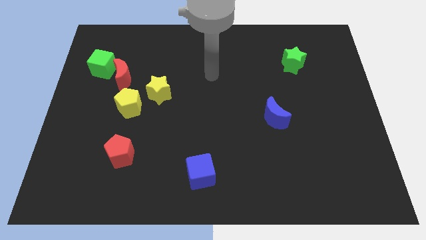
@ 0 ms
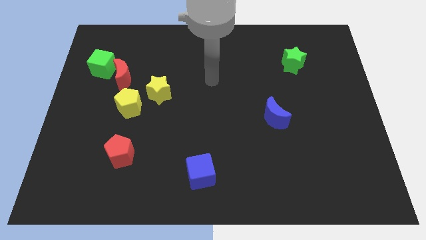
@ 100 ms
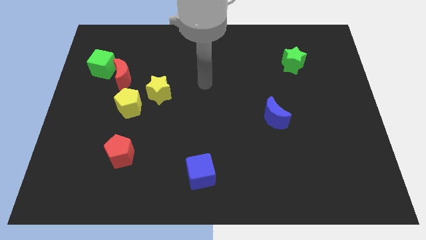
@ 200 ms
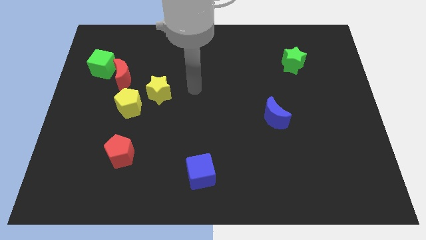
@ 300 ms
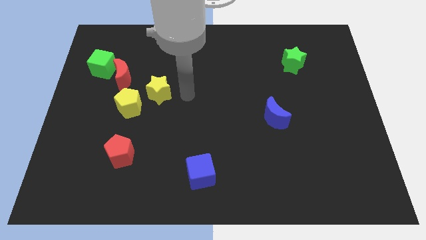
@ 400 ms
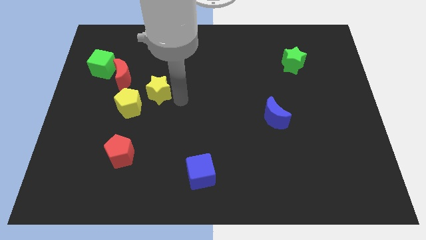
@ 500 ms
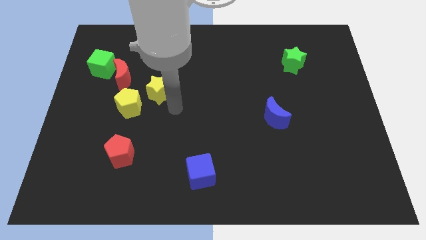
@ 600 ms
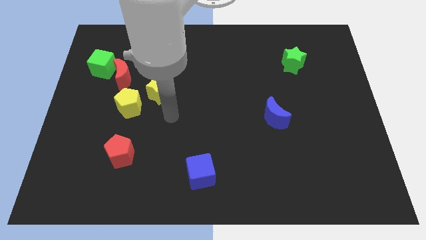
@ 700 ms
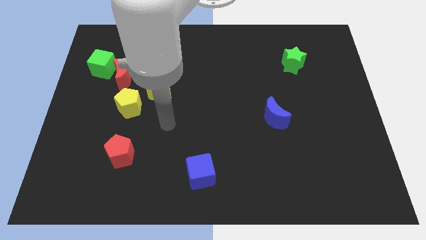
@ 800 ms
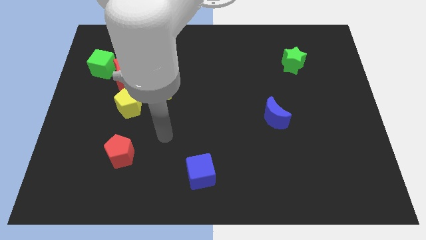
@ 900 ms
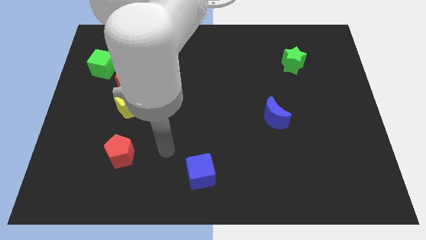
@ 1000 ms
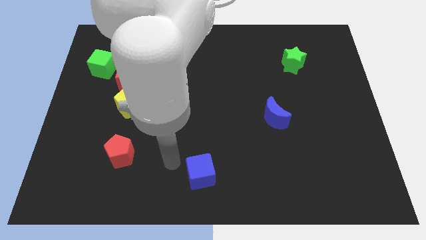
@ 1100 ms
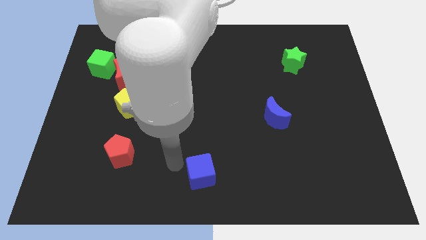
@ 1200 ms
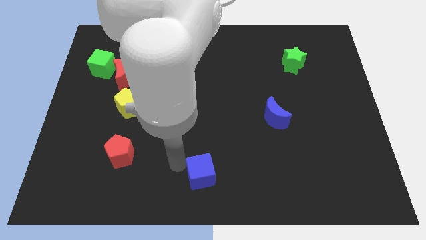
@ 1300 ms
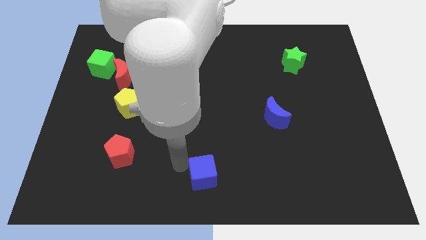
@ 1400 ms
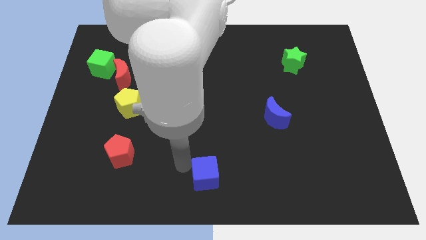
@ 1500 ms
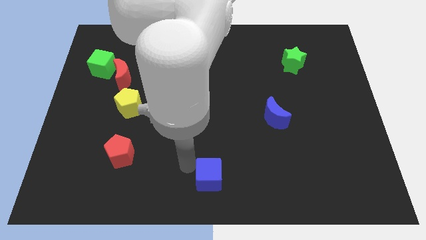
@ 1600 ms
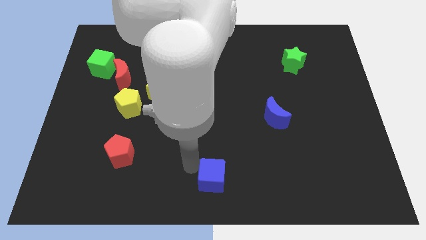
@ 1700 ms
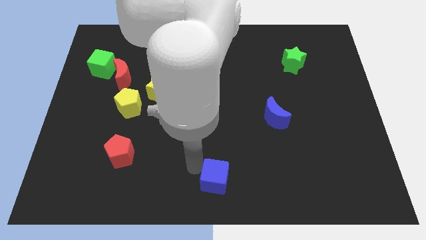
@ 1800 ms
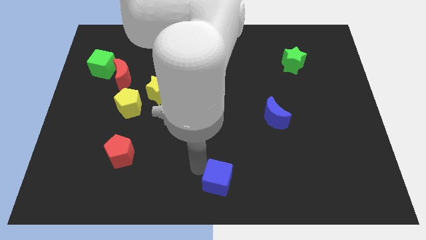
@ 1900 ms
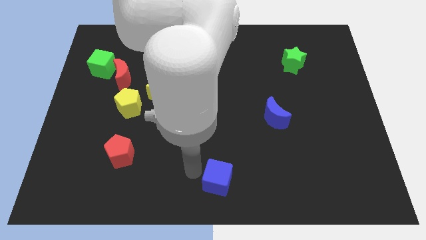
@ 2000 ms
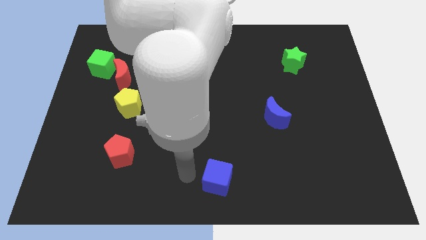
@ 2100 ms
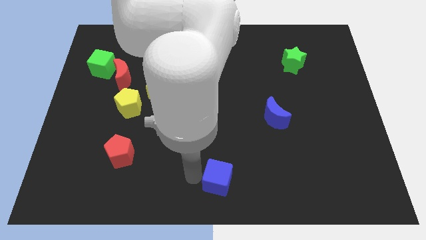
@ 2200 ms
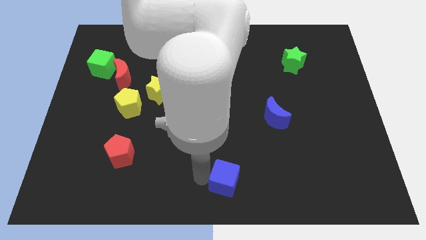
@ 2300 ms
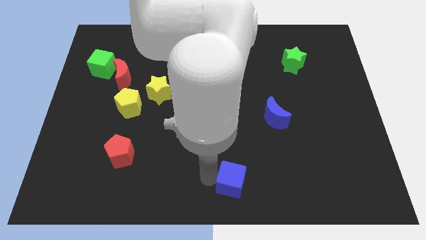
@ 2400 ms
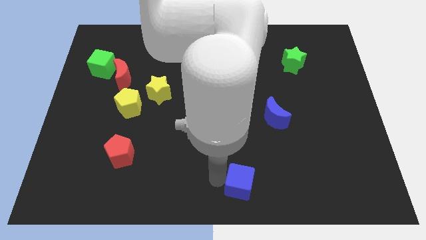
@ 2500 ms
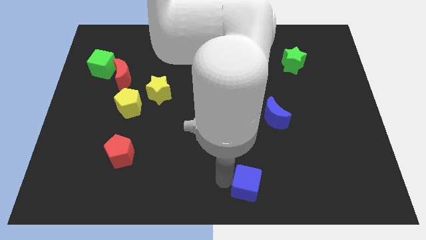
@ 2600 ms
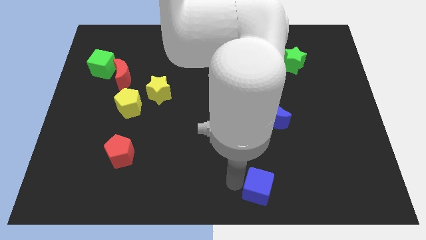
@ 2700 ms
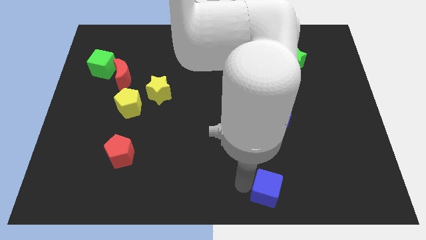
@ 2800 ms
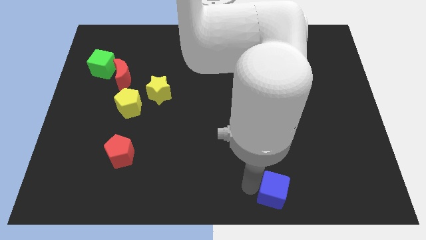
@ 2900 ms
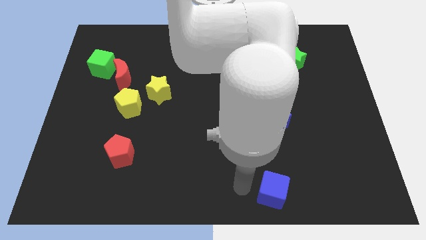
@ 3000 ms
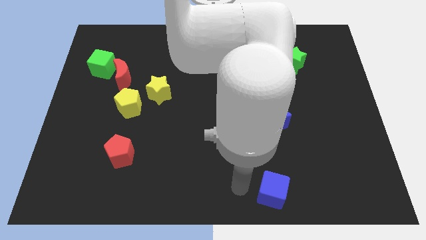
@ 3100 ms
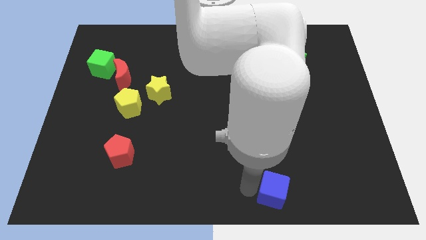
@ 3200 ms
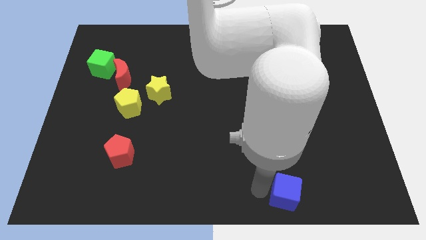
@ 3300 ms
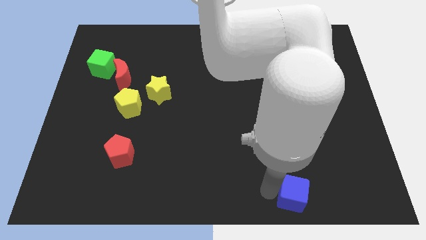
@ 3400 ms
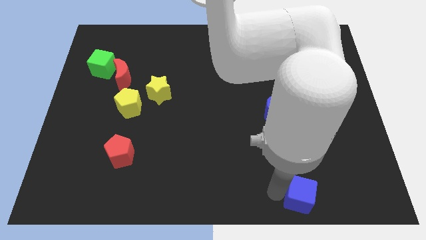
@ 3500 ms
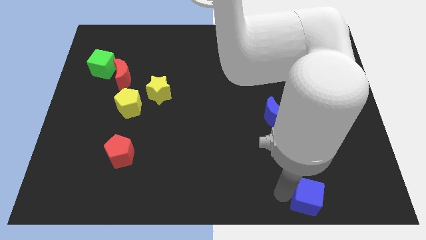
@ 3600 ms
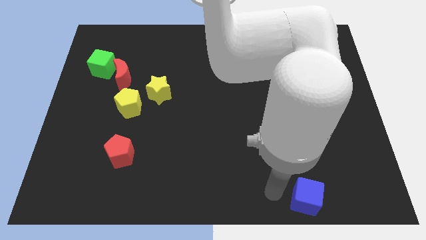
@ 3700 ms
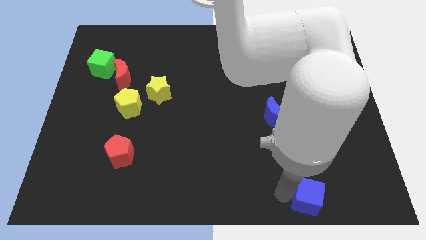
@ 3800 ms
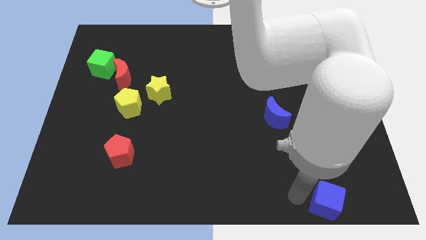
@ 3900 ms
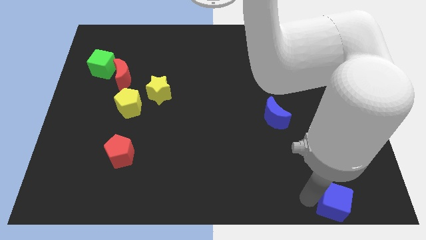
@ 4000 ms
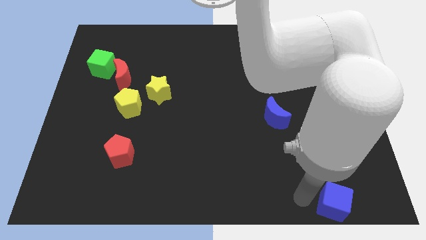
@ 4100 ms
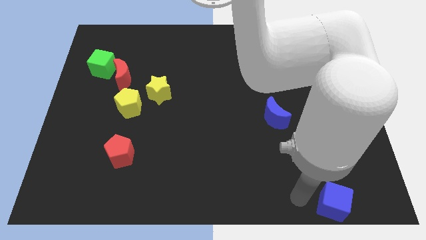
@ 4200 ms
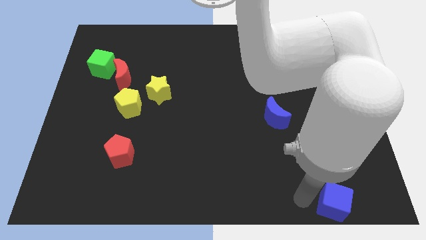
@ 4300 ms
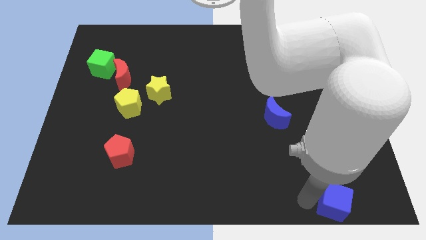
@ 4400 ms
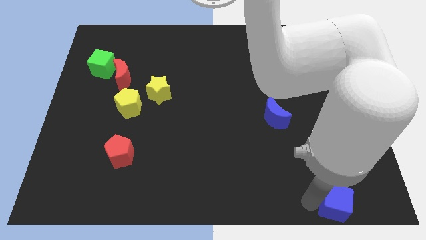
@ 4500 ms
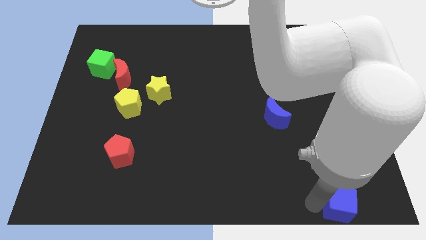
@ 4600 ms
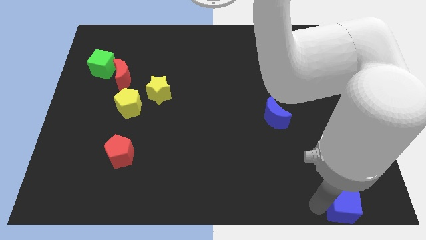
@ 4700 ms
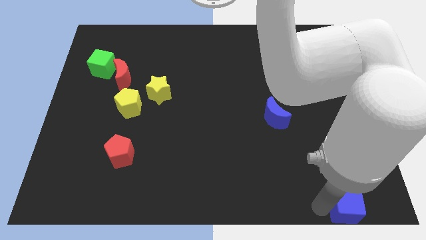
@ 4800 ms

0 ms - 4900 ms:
put the blue cube to the bottom right corner

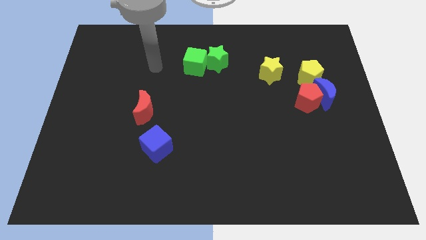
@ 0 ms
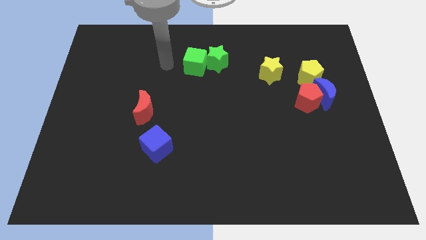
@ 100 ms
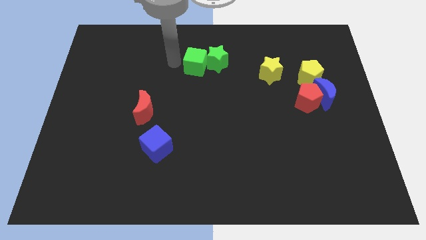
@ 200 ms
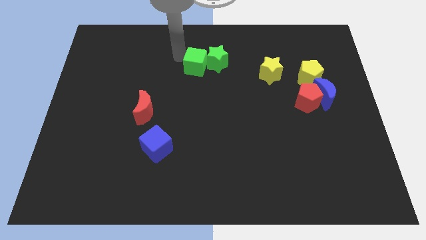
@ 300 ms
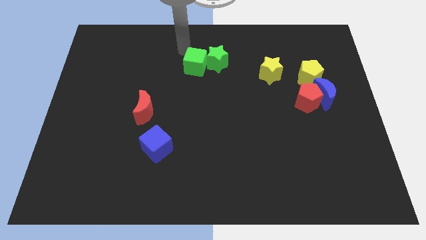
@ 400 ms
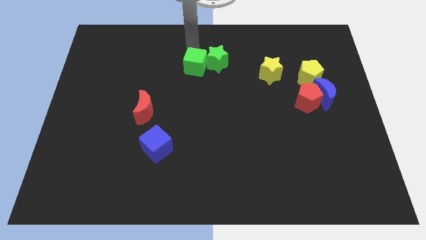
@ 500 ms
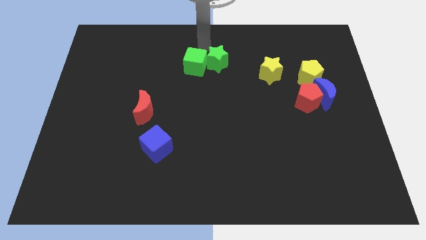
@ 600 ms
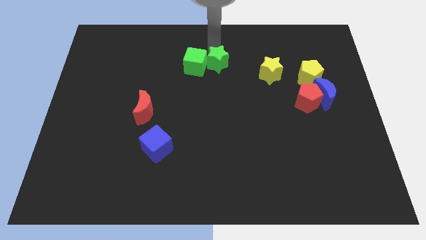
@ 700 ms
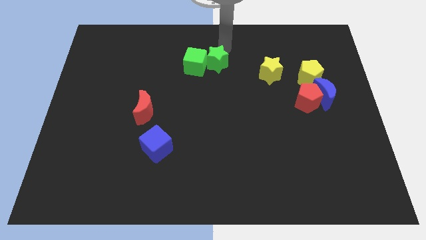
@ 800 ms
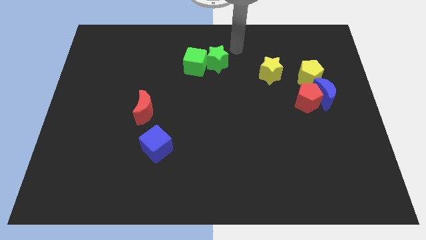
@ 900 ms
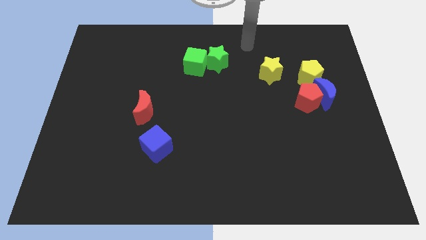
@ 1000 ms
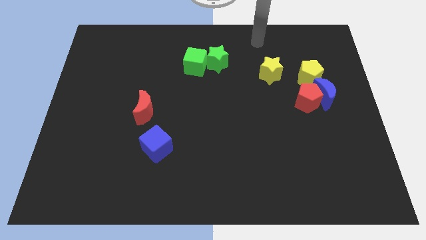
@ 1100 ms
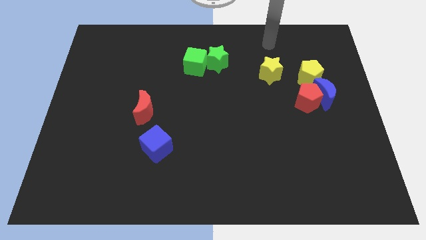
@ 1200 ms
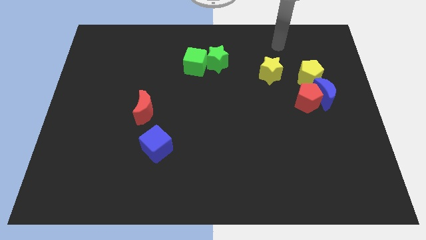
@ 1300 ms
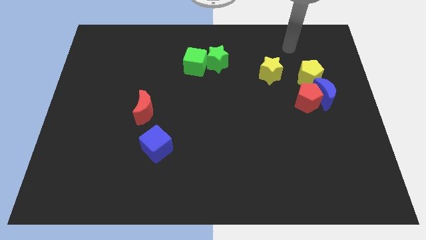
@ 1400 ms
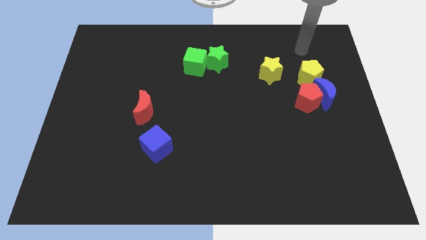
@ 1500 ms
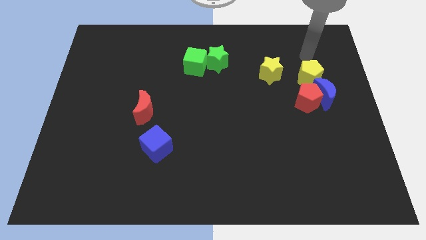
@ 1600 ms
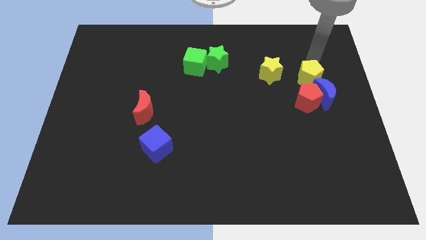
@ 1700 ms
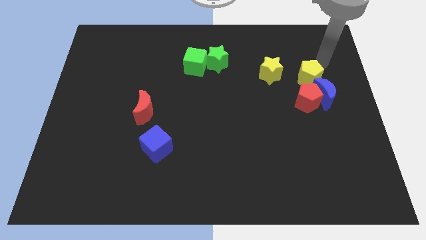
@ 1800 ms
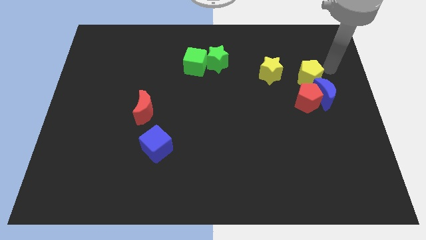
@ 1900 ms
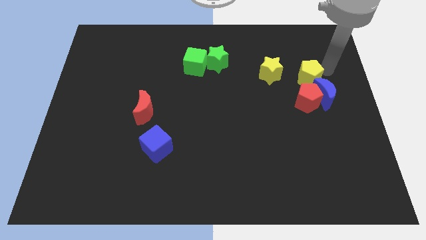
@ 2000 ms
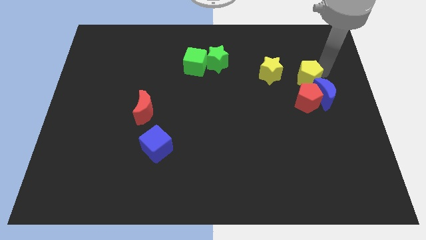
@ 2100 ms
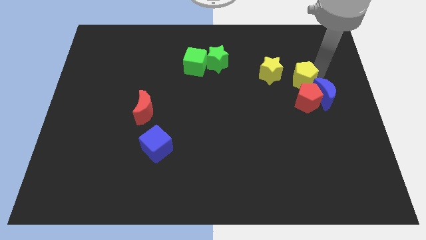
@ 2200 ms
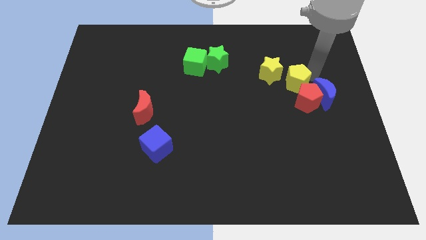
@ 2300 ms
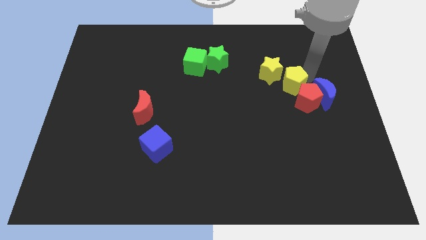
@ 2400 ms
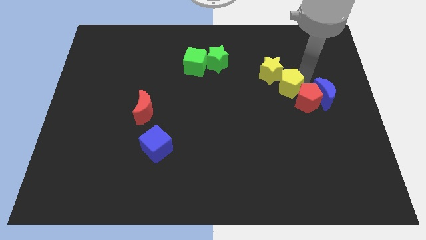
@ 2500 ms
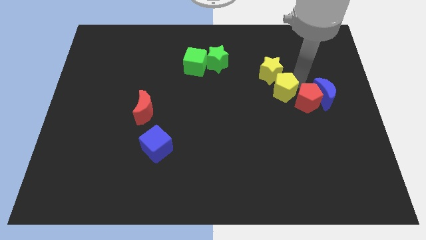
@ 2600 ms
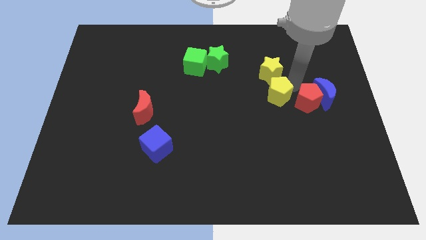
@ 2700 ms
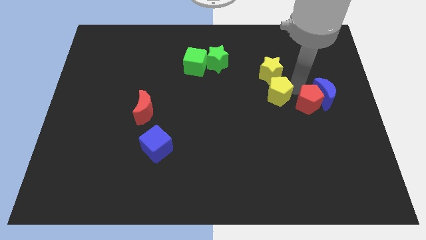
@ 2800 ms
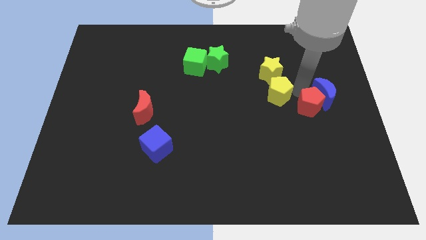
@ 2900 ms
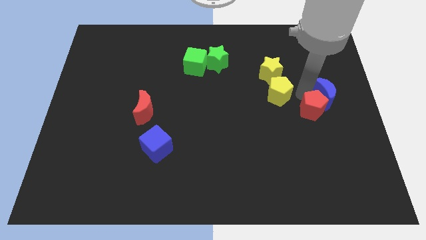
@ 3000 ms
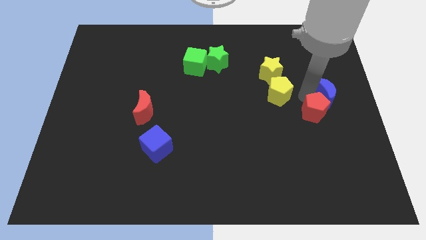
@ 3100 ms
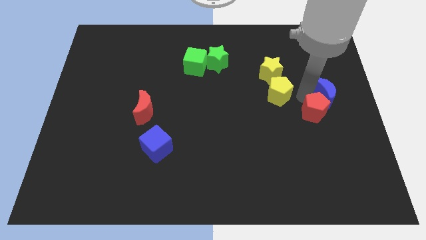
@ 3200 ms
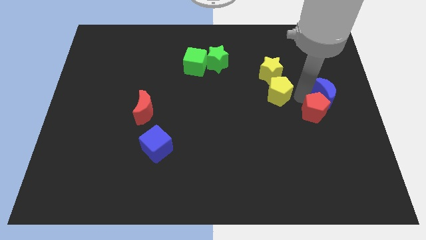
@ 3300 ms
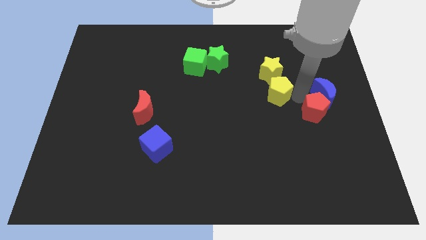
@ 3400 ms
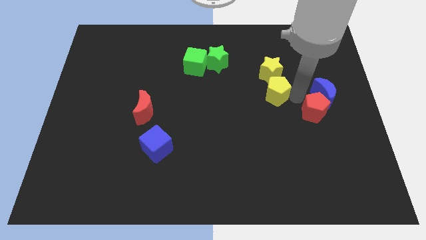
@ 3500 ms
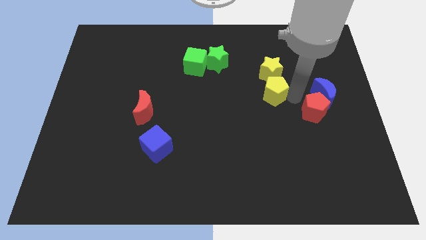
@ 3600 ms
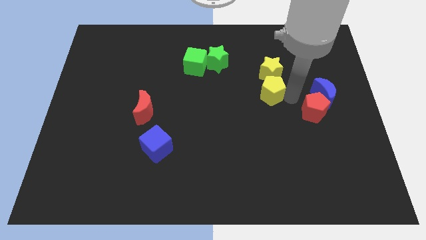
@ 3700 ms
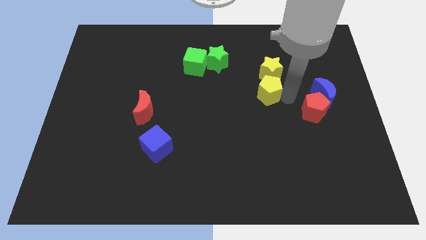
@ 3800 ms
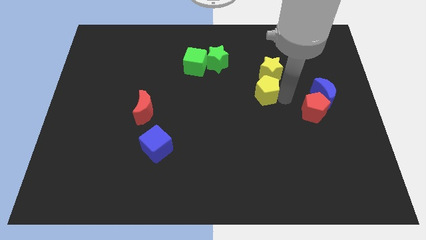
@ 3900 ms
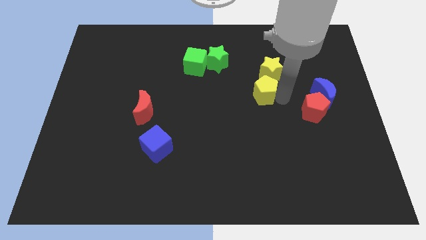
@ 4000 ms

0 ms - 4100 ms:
put the yellow pentagon to the center
